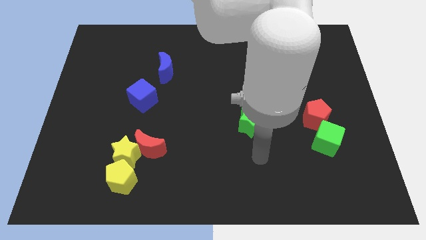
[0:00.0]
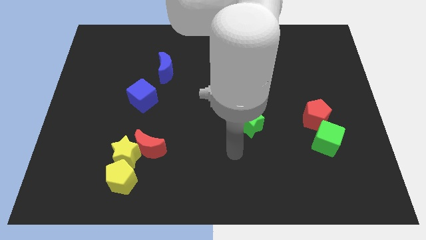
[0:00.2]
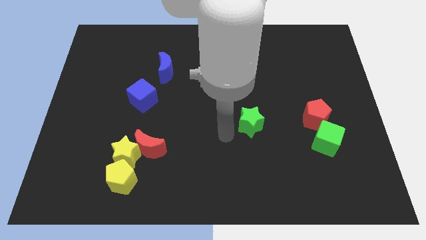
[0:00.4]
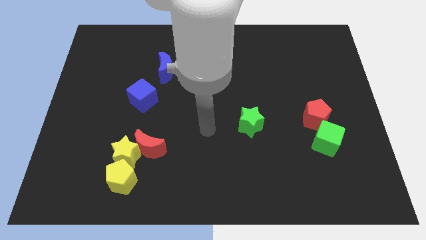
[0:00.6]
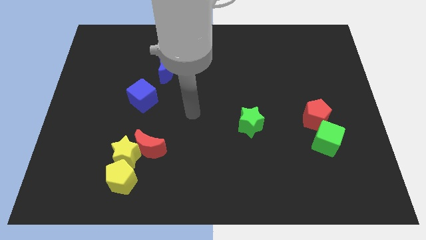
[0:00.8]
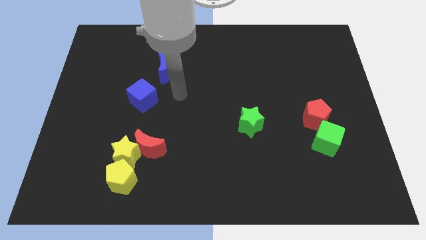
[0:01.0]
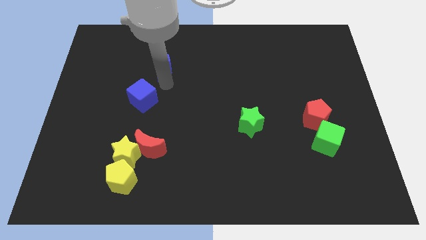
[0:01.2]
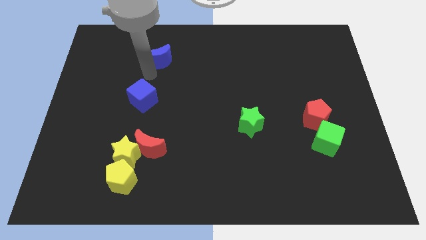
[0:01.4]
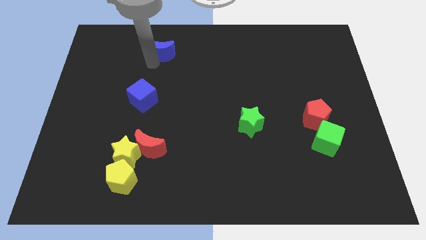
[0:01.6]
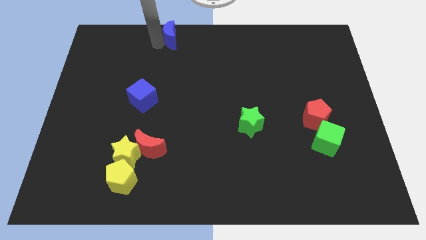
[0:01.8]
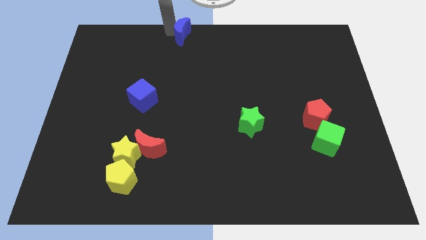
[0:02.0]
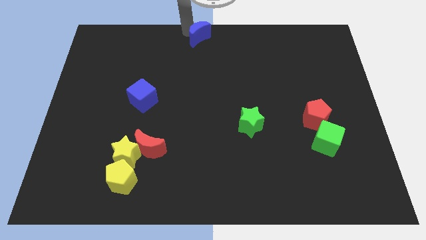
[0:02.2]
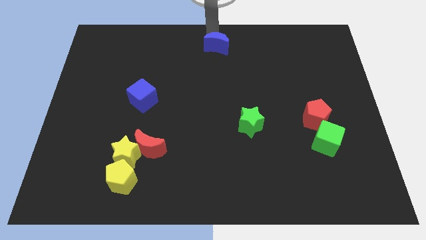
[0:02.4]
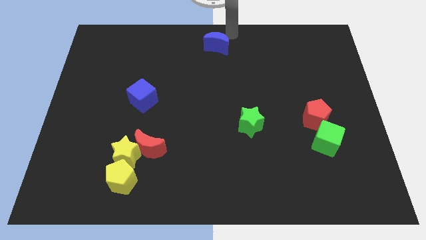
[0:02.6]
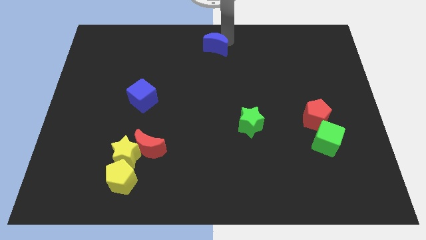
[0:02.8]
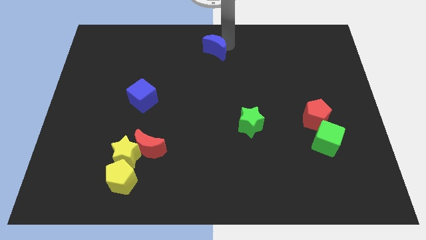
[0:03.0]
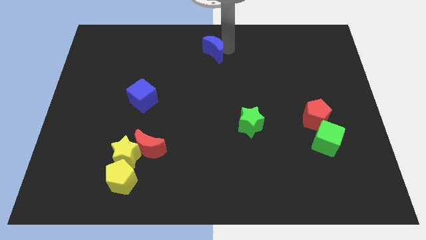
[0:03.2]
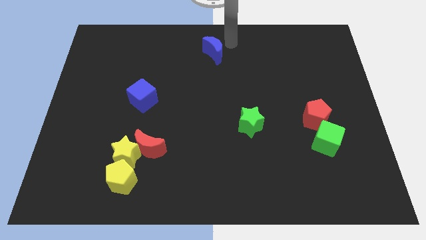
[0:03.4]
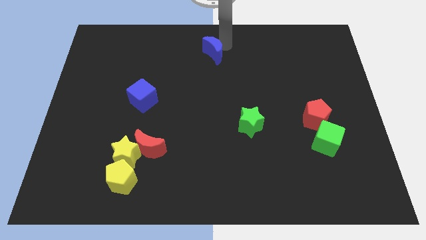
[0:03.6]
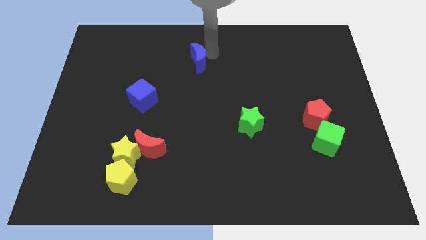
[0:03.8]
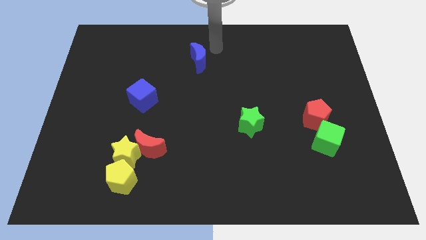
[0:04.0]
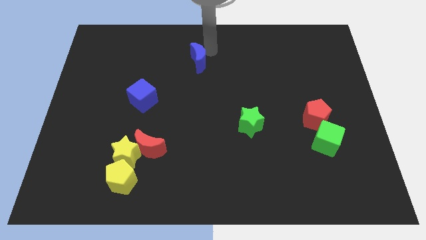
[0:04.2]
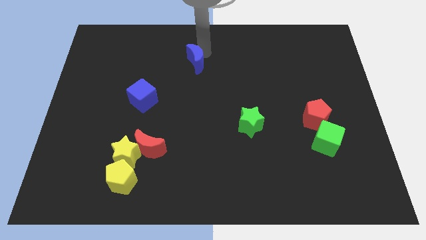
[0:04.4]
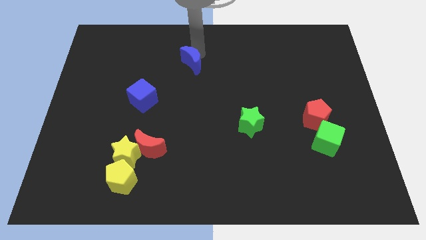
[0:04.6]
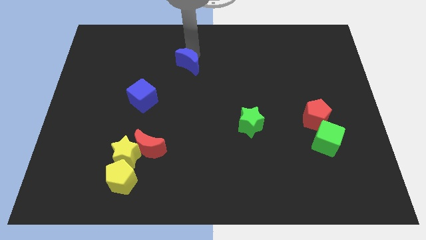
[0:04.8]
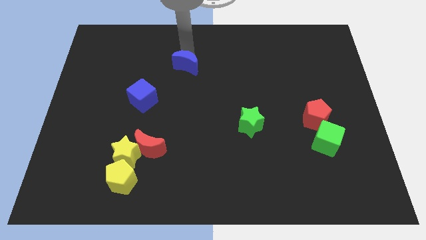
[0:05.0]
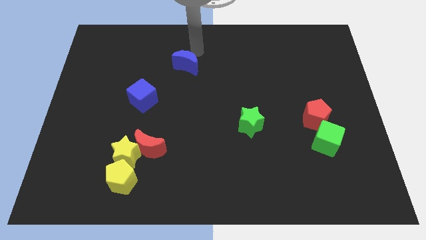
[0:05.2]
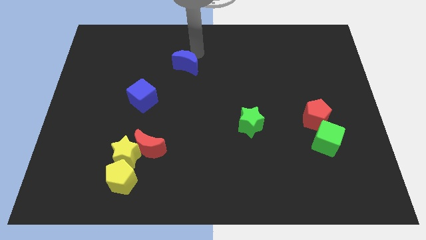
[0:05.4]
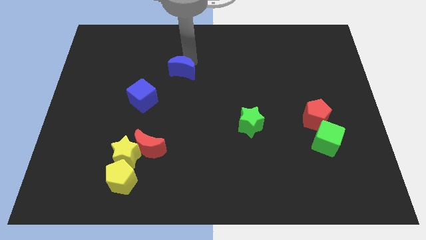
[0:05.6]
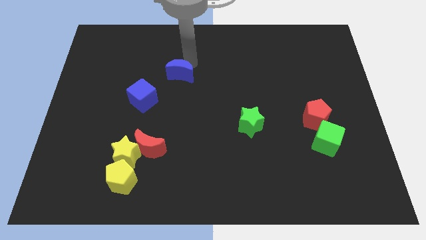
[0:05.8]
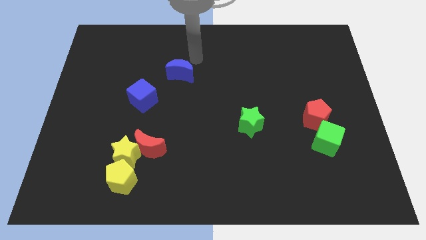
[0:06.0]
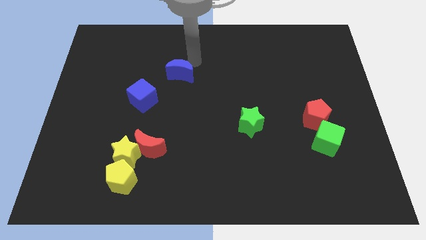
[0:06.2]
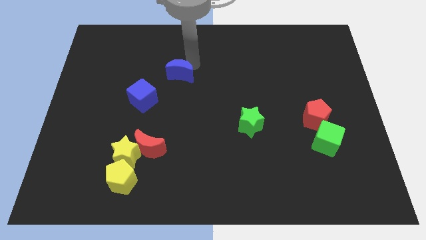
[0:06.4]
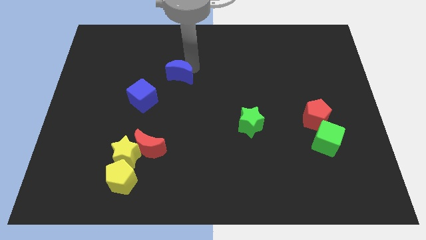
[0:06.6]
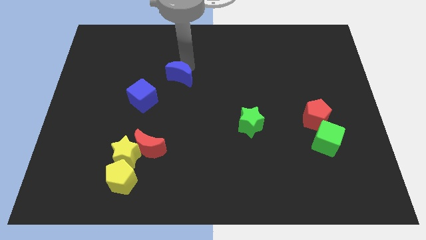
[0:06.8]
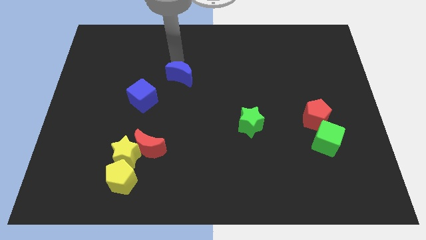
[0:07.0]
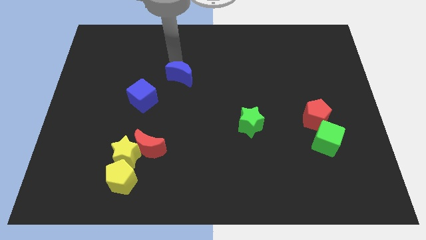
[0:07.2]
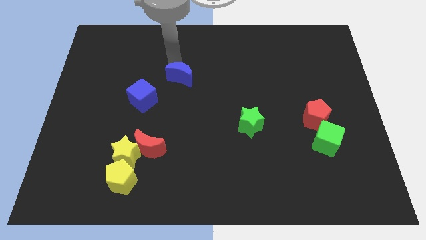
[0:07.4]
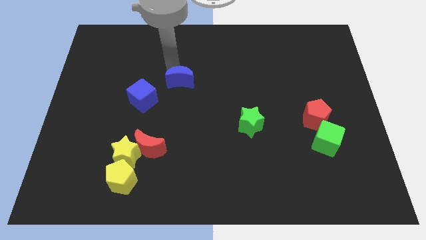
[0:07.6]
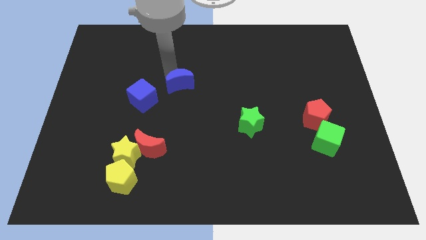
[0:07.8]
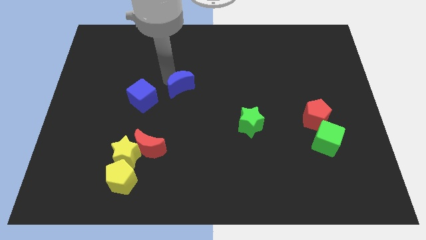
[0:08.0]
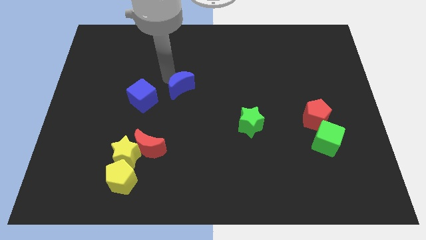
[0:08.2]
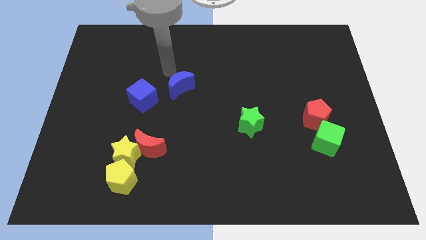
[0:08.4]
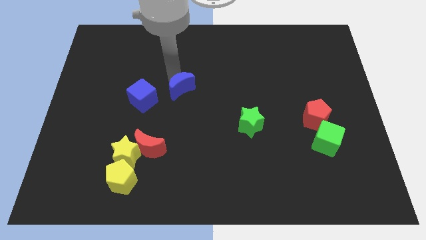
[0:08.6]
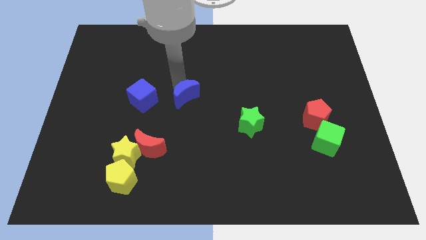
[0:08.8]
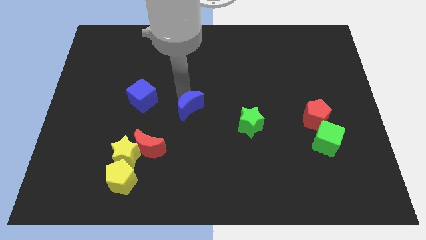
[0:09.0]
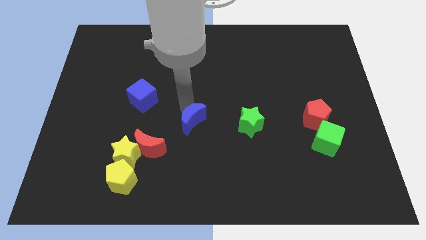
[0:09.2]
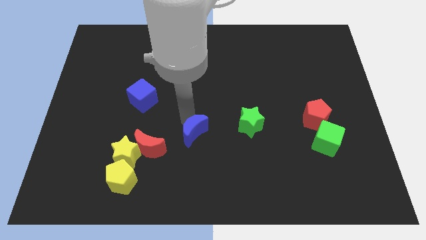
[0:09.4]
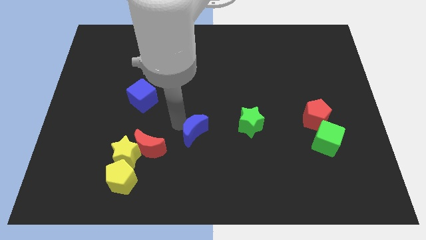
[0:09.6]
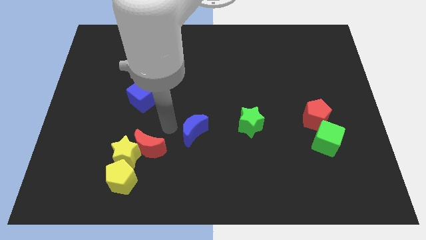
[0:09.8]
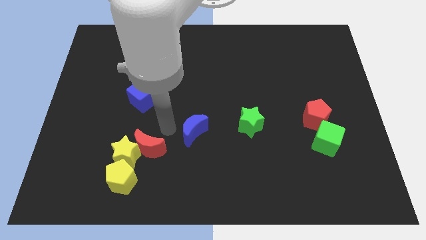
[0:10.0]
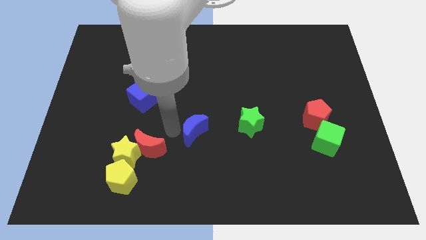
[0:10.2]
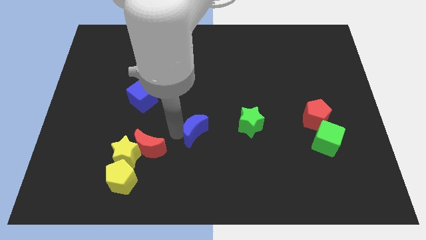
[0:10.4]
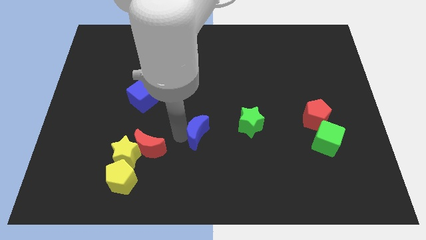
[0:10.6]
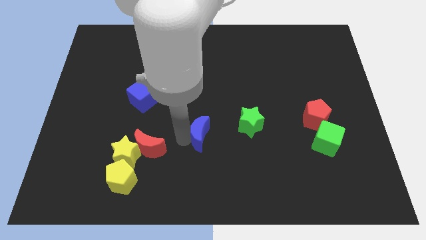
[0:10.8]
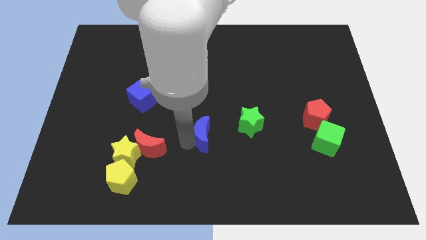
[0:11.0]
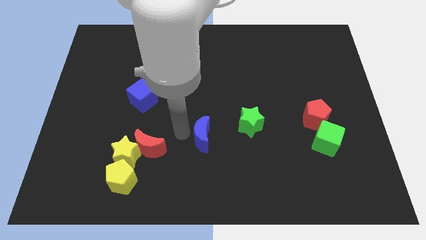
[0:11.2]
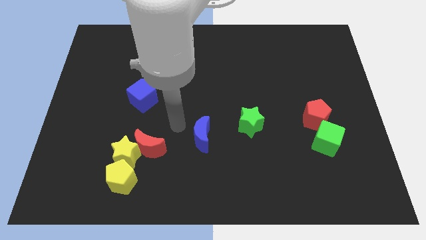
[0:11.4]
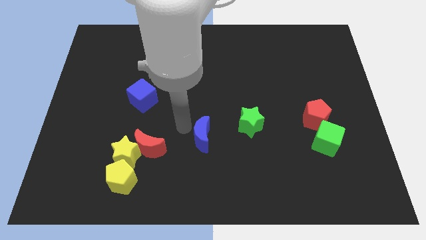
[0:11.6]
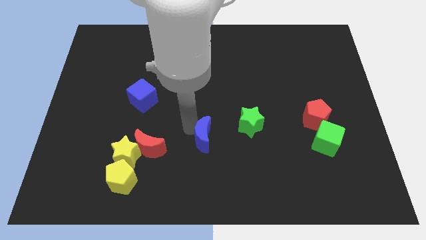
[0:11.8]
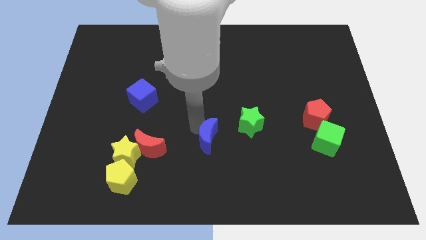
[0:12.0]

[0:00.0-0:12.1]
slide the blue moon down and right diagonally

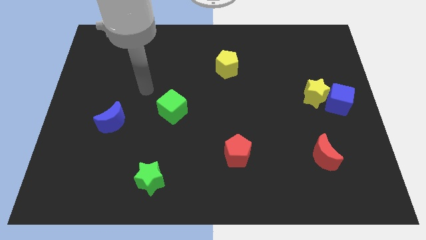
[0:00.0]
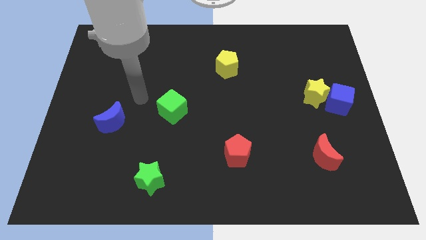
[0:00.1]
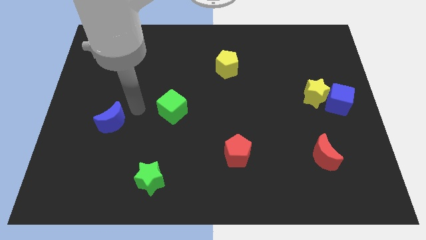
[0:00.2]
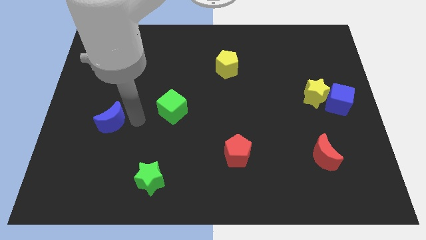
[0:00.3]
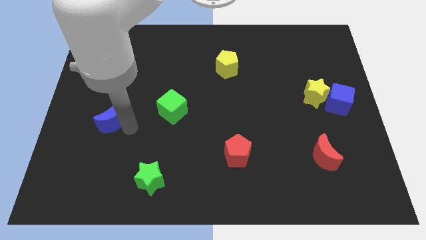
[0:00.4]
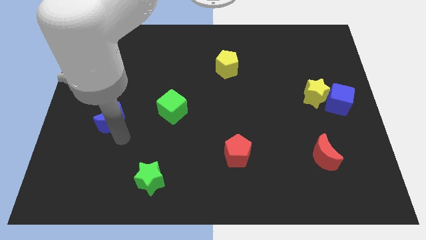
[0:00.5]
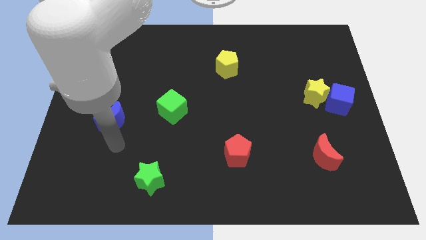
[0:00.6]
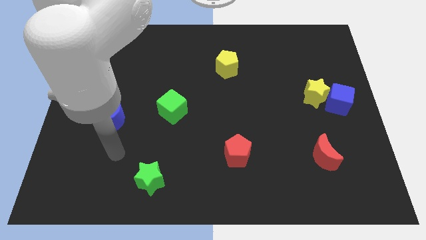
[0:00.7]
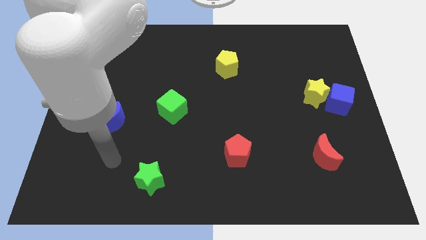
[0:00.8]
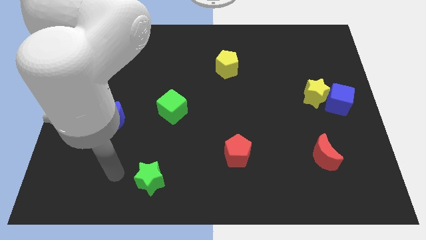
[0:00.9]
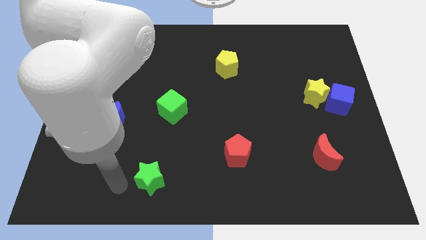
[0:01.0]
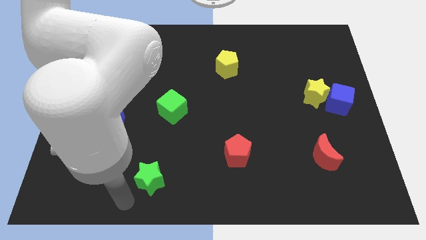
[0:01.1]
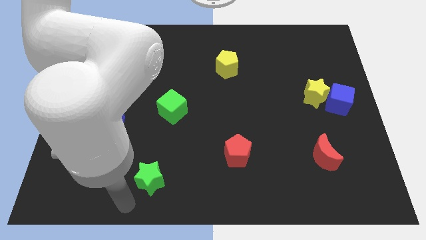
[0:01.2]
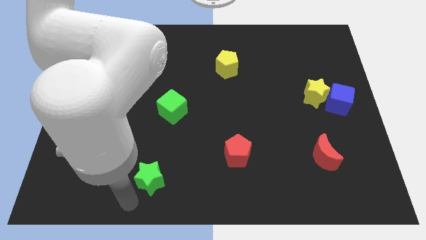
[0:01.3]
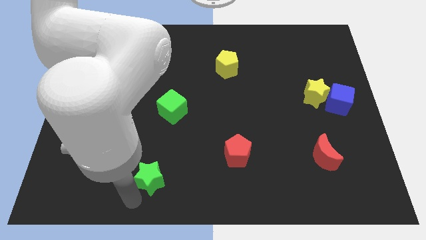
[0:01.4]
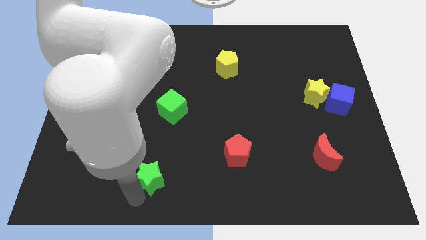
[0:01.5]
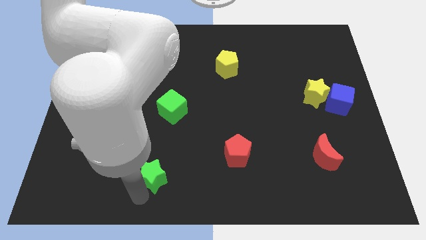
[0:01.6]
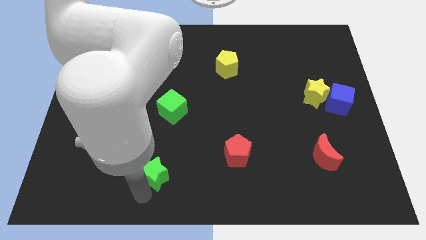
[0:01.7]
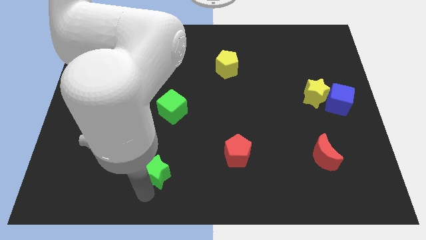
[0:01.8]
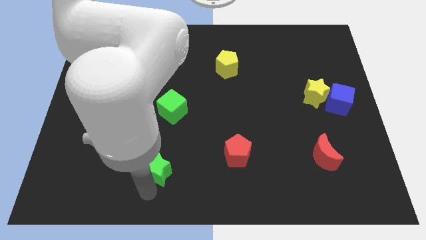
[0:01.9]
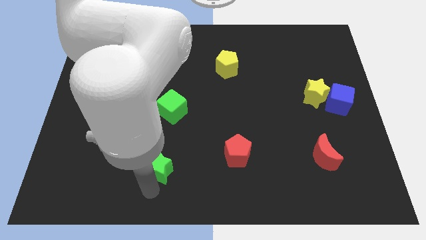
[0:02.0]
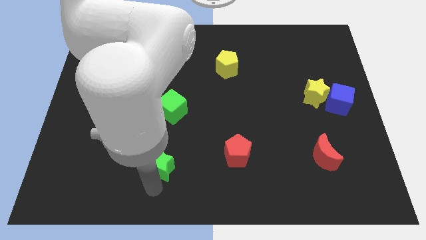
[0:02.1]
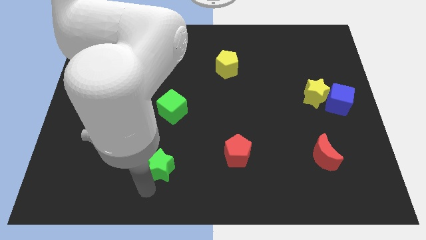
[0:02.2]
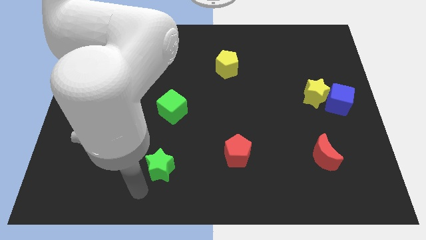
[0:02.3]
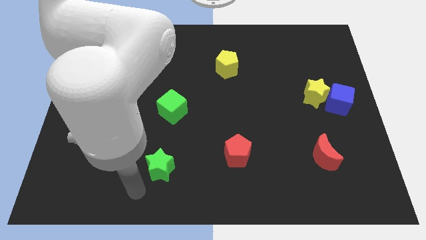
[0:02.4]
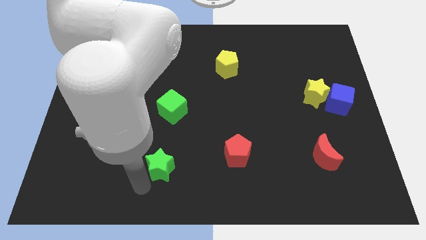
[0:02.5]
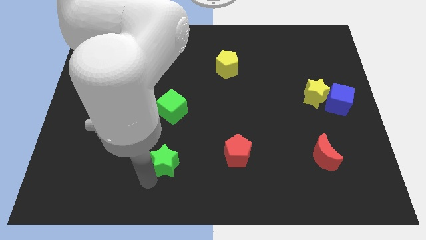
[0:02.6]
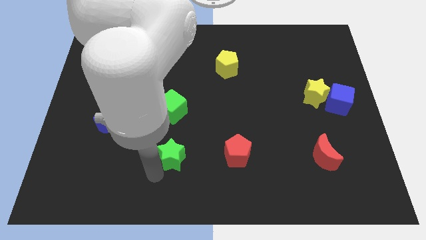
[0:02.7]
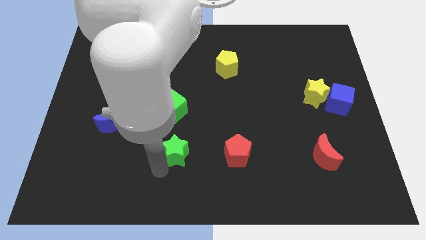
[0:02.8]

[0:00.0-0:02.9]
slightly move the green star diagonally up and to the right
